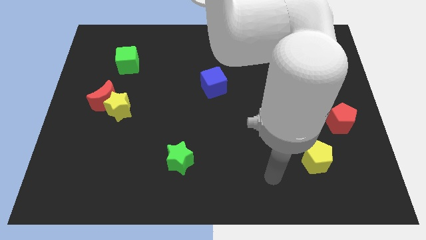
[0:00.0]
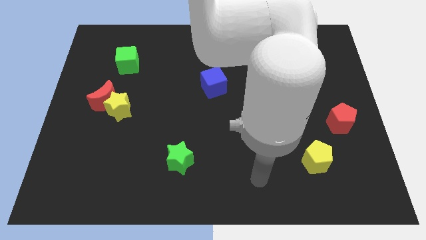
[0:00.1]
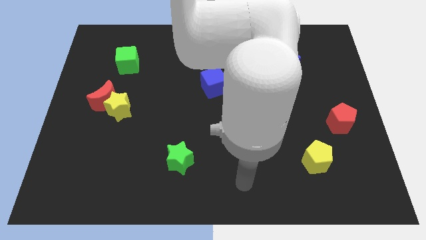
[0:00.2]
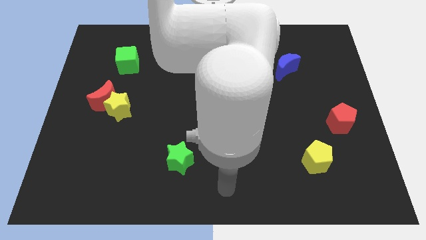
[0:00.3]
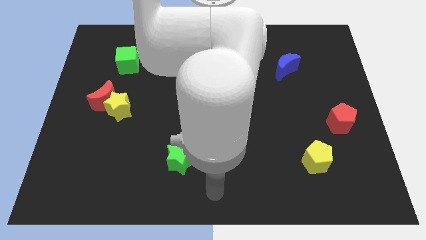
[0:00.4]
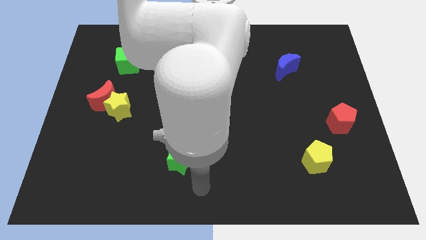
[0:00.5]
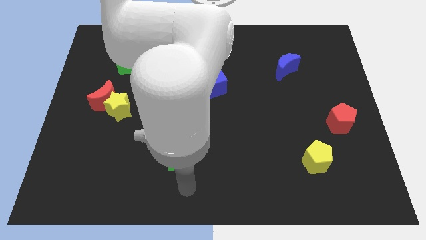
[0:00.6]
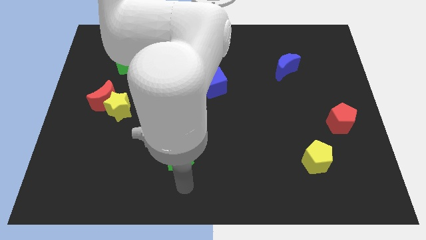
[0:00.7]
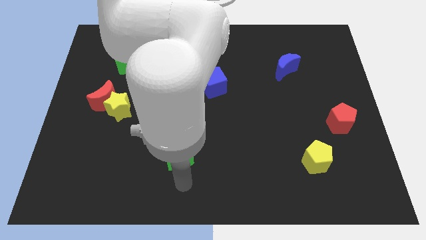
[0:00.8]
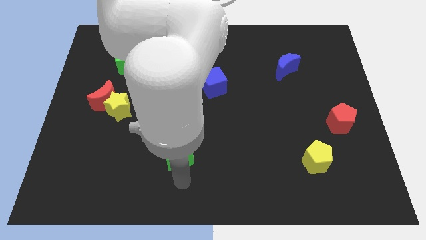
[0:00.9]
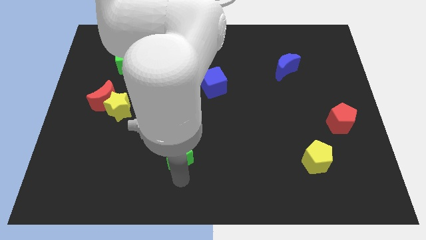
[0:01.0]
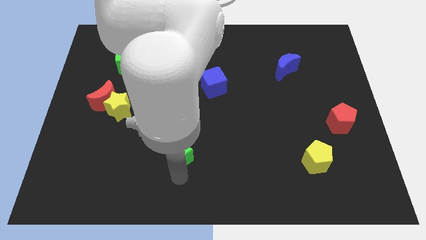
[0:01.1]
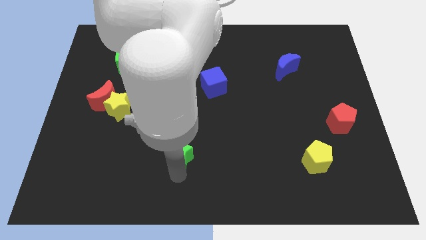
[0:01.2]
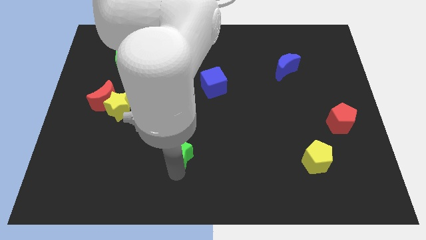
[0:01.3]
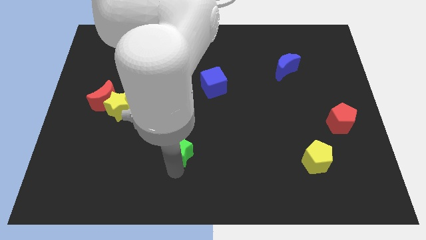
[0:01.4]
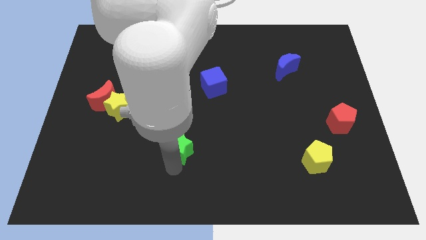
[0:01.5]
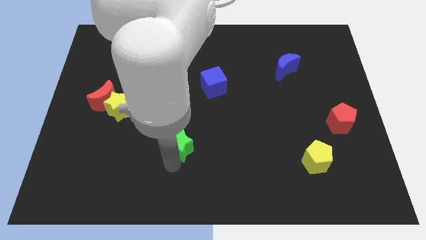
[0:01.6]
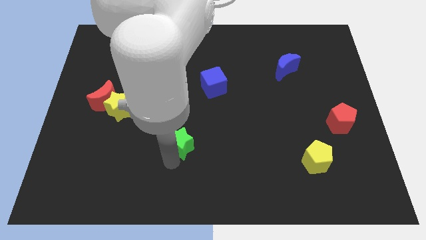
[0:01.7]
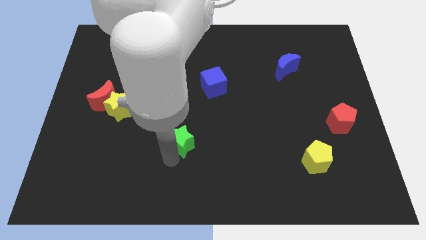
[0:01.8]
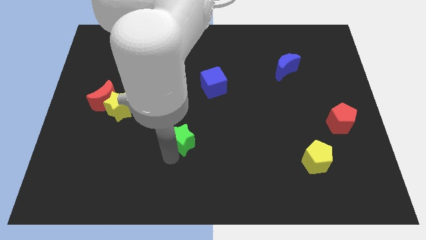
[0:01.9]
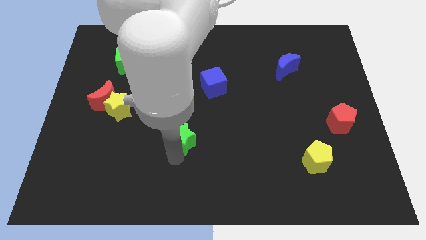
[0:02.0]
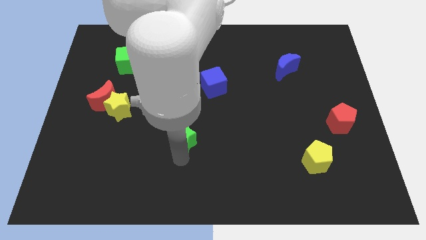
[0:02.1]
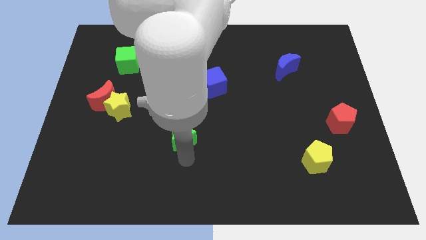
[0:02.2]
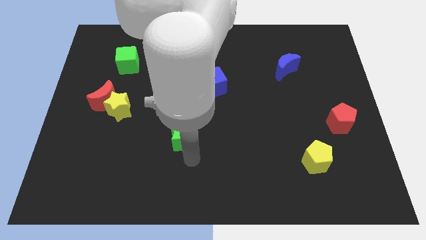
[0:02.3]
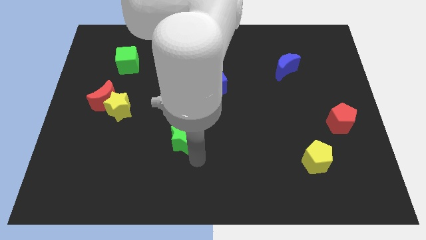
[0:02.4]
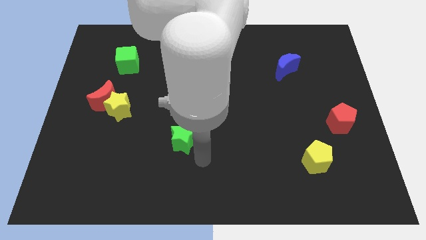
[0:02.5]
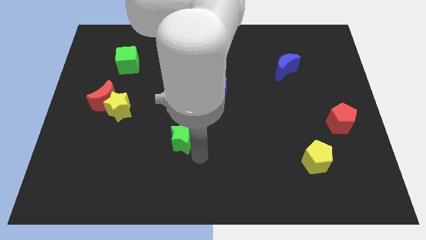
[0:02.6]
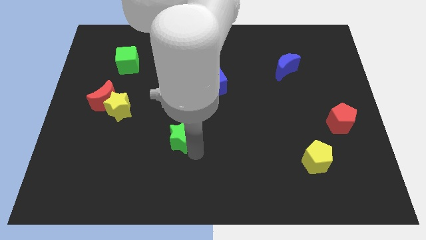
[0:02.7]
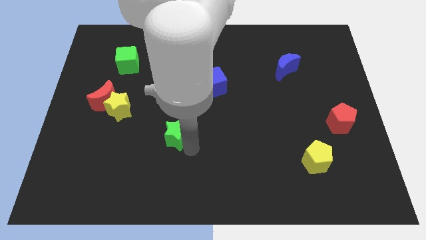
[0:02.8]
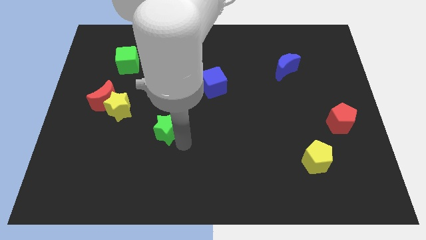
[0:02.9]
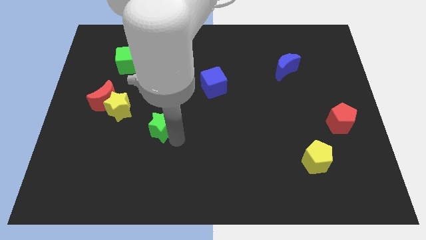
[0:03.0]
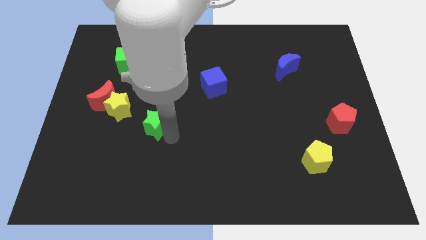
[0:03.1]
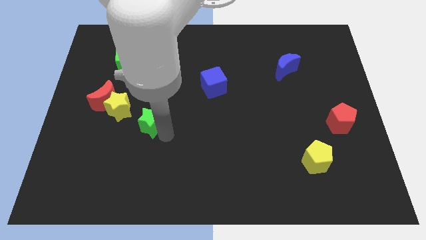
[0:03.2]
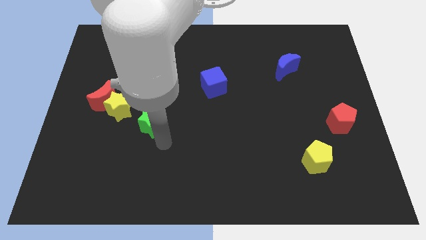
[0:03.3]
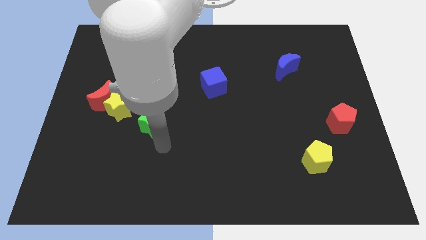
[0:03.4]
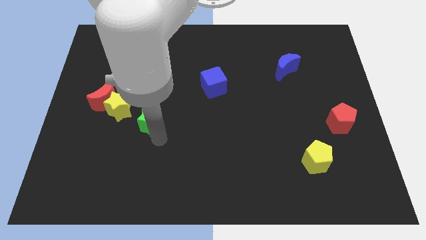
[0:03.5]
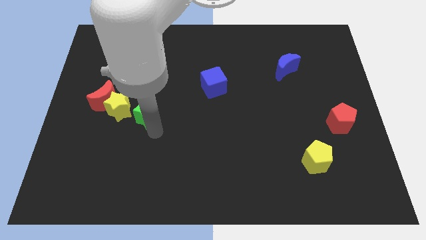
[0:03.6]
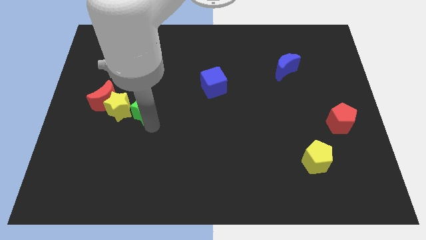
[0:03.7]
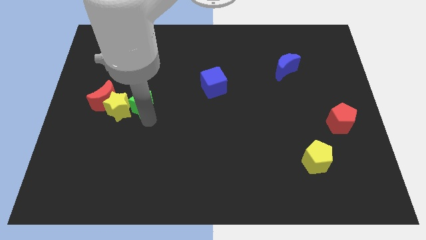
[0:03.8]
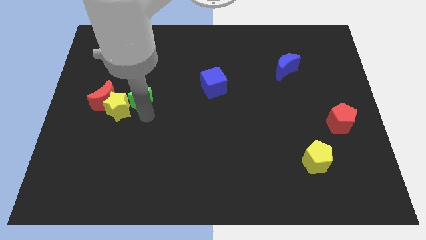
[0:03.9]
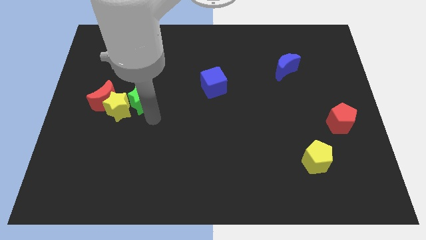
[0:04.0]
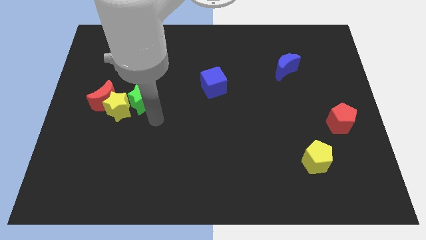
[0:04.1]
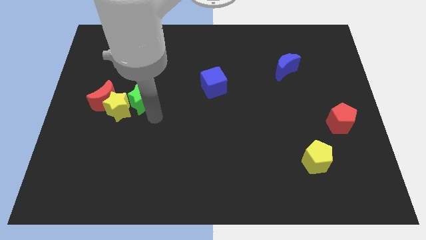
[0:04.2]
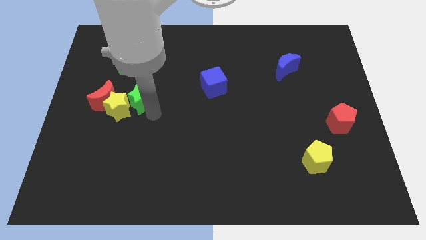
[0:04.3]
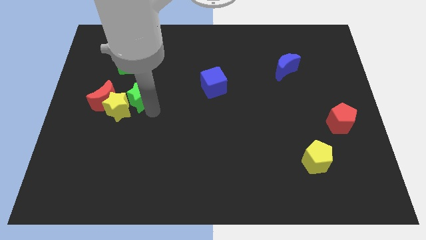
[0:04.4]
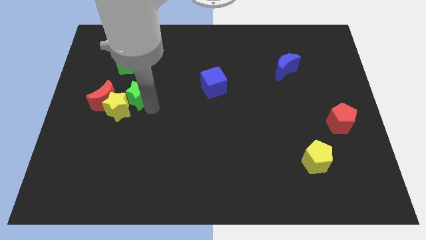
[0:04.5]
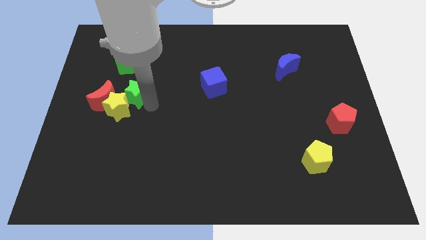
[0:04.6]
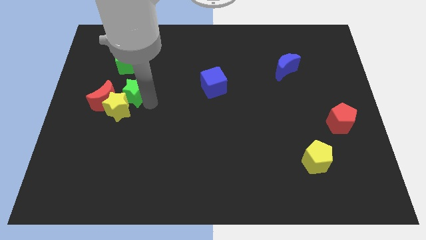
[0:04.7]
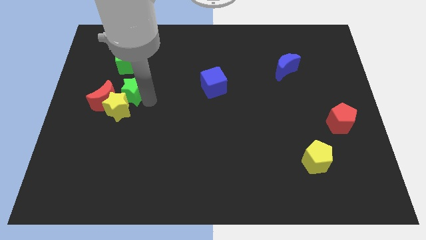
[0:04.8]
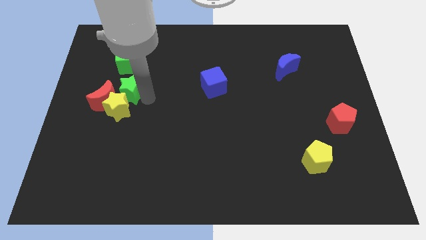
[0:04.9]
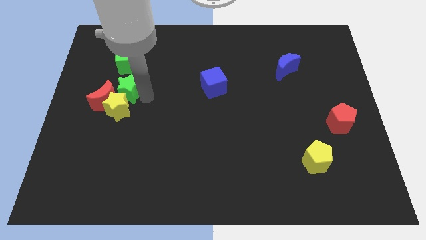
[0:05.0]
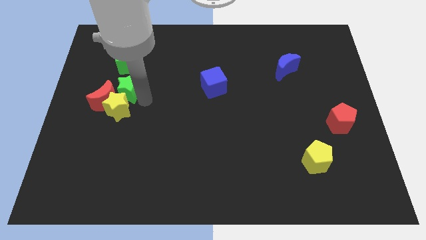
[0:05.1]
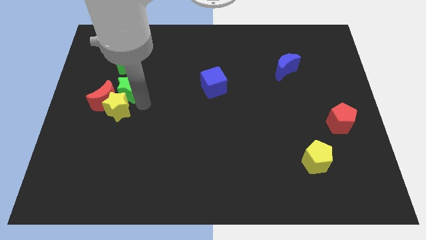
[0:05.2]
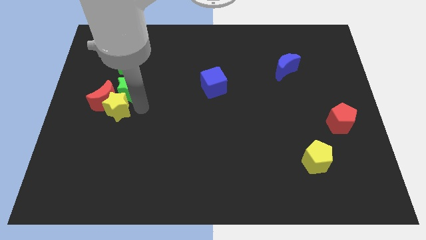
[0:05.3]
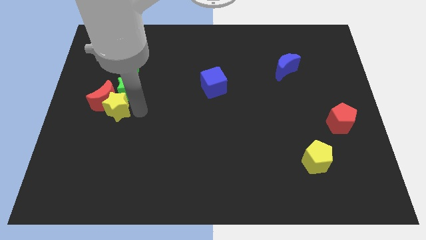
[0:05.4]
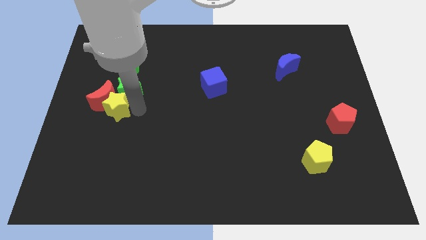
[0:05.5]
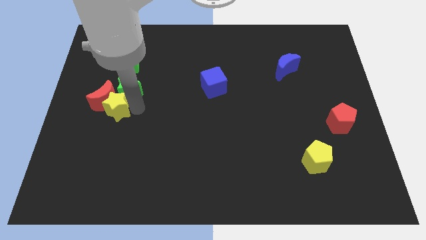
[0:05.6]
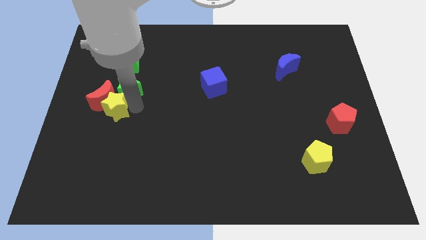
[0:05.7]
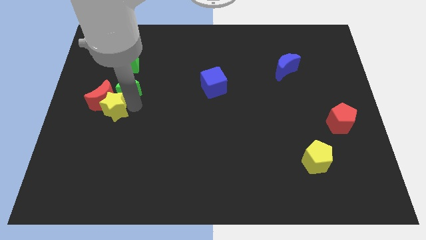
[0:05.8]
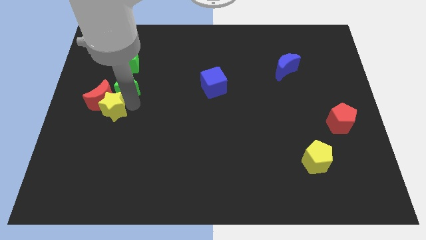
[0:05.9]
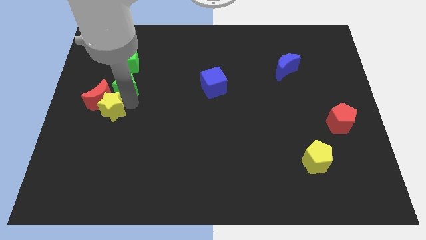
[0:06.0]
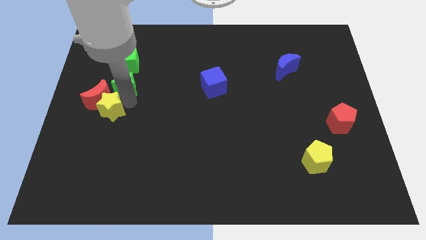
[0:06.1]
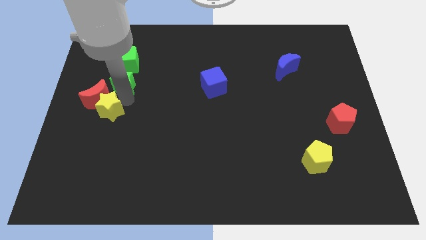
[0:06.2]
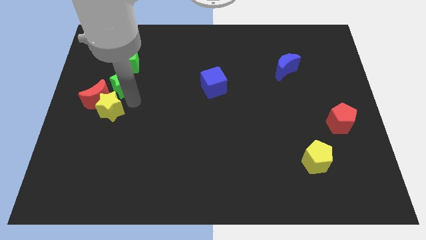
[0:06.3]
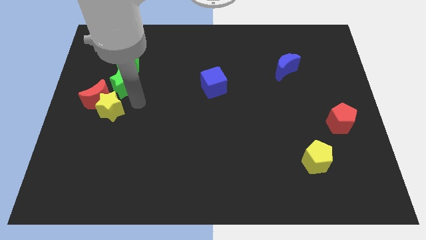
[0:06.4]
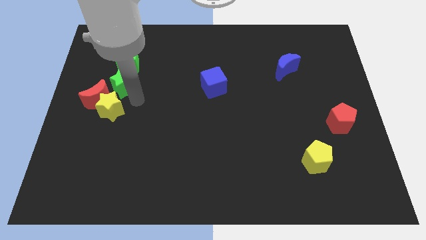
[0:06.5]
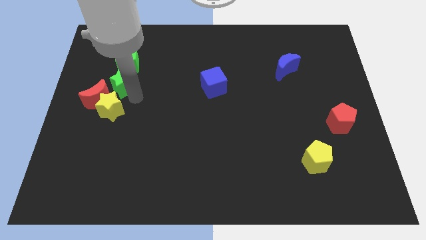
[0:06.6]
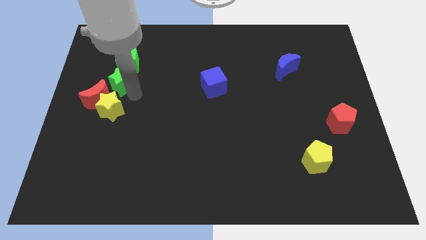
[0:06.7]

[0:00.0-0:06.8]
put the green star to the top side of the red moon
